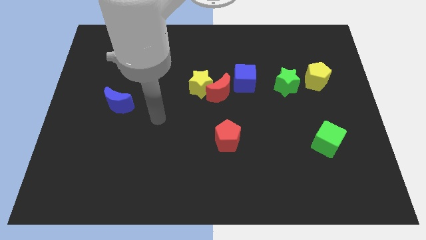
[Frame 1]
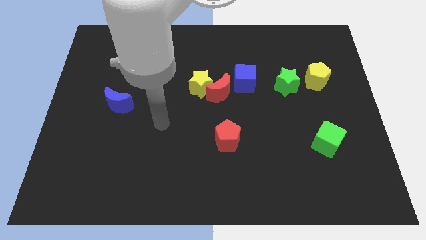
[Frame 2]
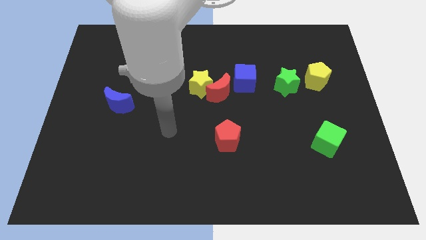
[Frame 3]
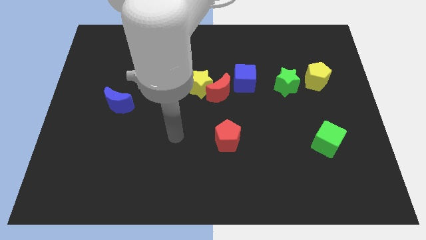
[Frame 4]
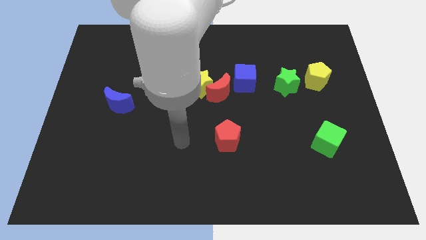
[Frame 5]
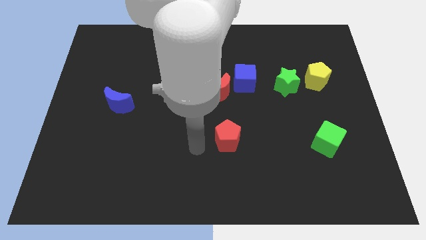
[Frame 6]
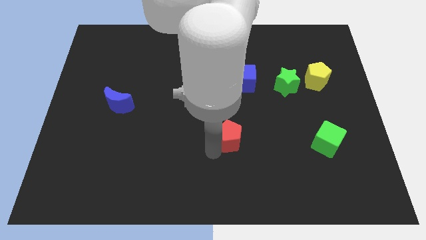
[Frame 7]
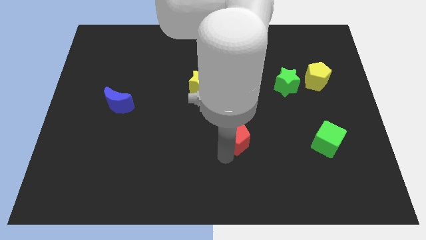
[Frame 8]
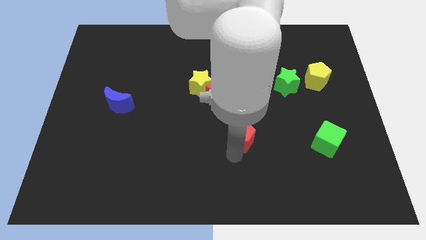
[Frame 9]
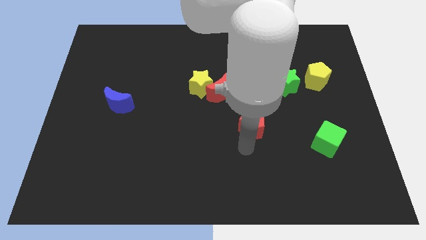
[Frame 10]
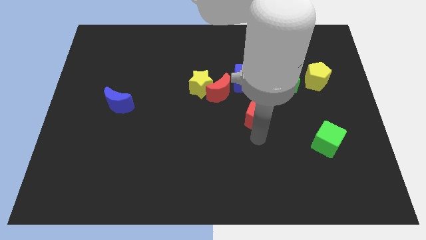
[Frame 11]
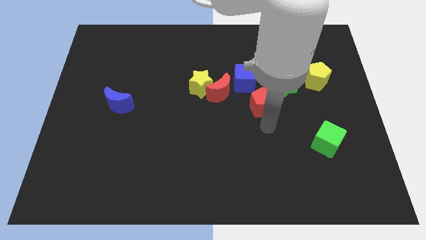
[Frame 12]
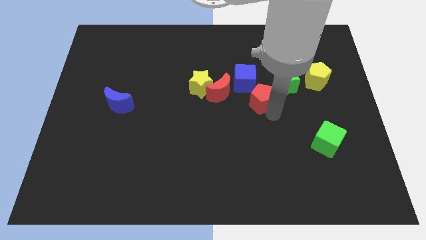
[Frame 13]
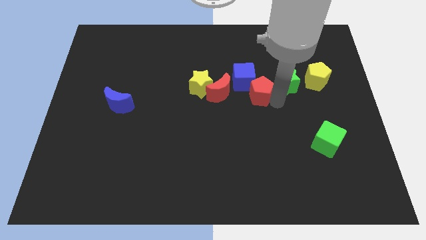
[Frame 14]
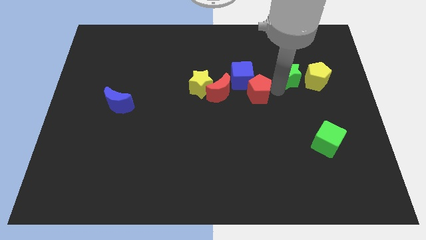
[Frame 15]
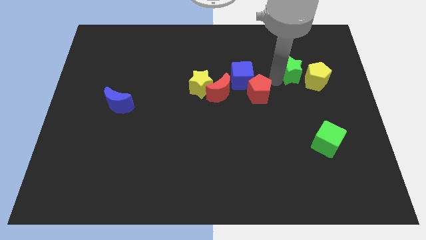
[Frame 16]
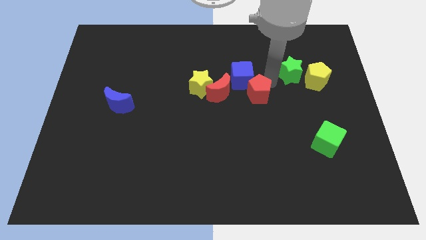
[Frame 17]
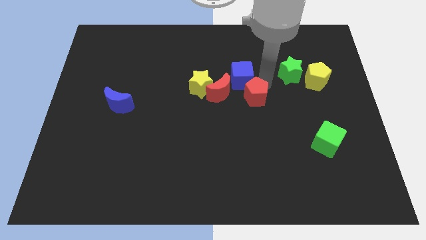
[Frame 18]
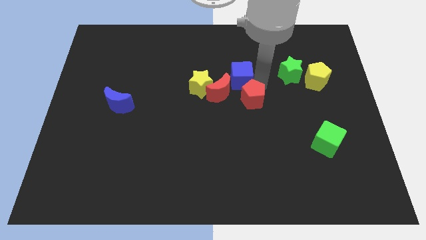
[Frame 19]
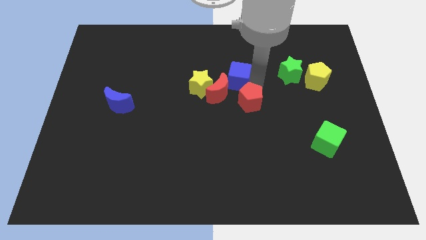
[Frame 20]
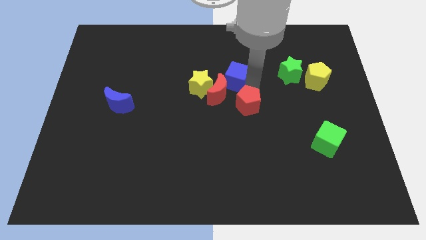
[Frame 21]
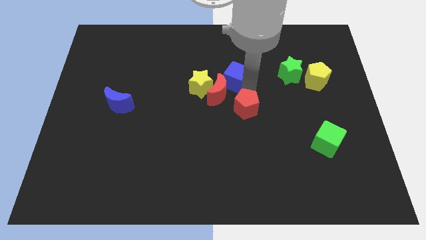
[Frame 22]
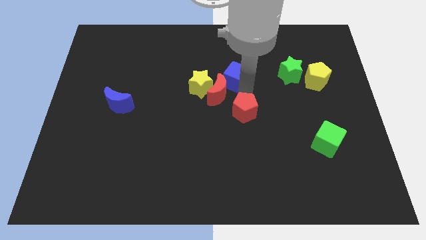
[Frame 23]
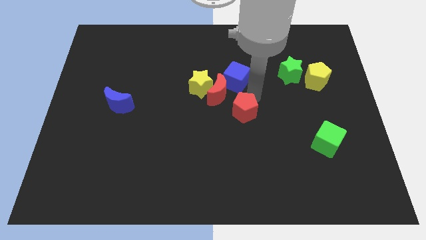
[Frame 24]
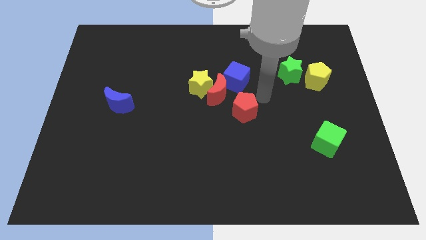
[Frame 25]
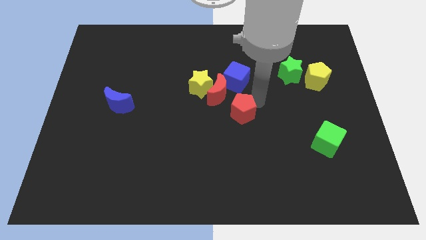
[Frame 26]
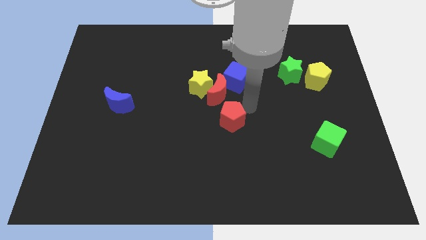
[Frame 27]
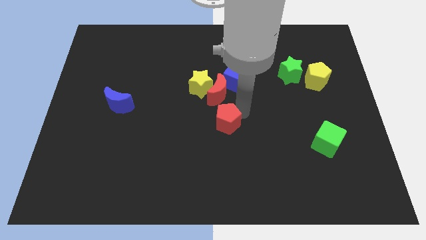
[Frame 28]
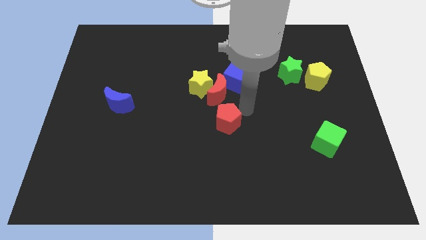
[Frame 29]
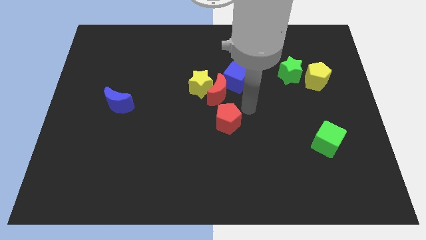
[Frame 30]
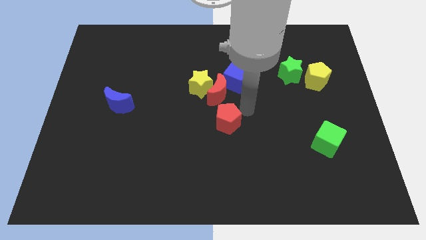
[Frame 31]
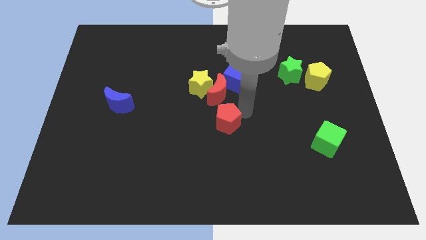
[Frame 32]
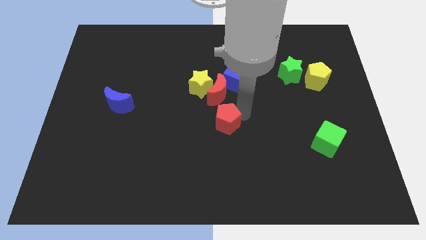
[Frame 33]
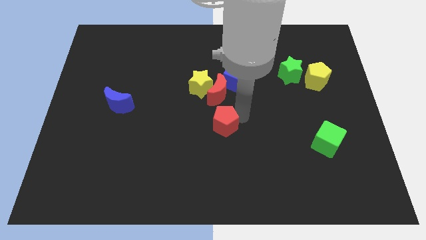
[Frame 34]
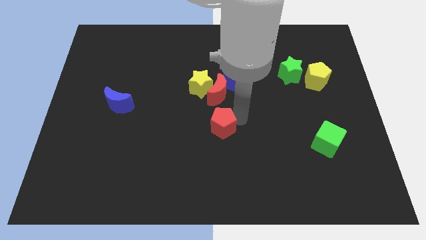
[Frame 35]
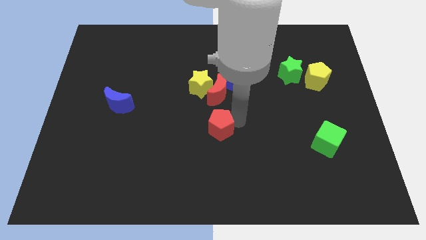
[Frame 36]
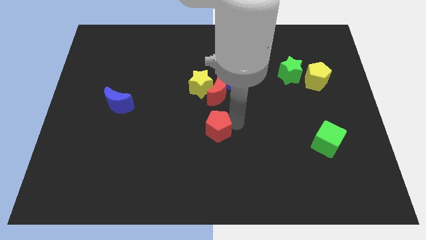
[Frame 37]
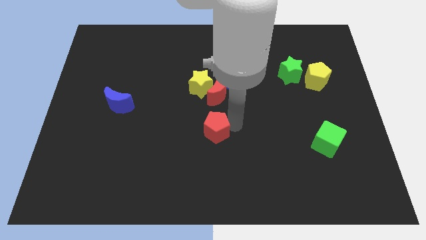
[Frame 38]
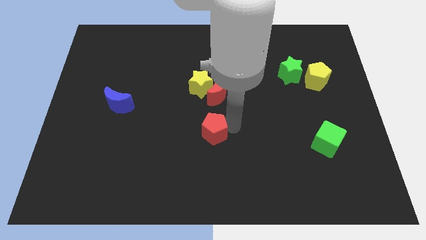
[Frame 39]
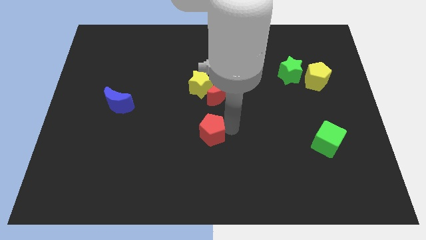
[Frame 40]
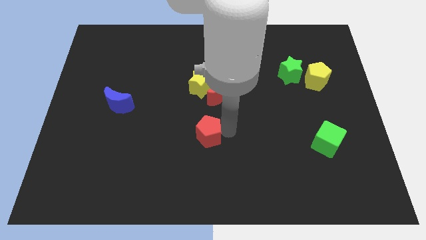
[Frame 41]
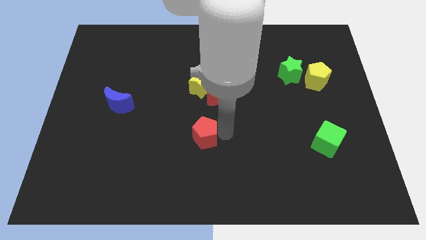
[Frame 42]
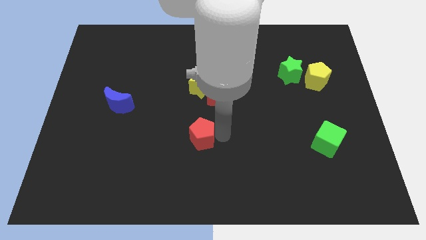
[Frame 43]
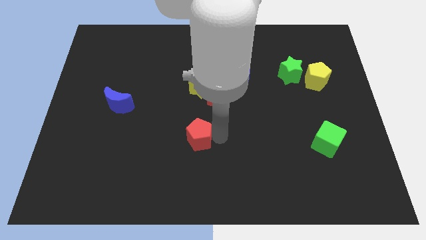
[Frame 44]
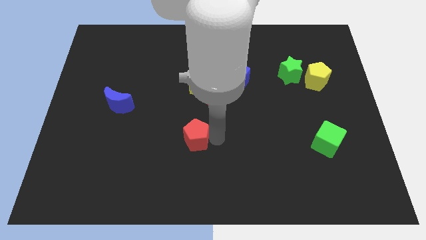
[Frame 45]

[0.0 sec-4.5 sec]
push the red pentagon a little left

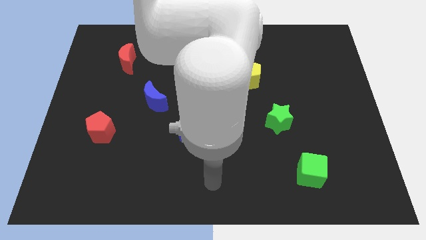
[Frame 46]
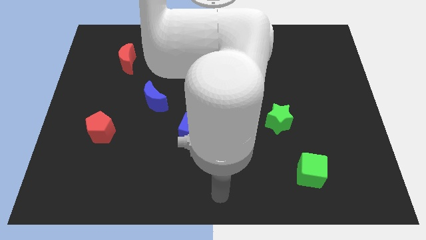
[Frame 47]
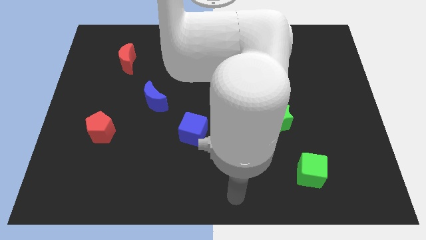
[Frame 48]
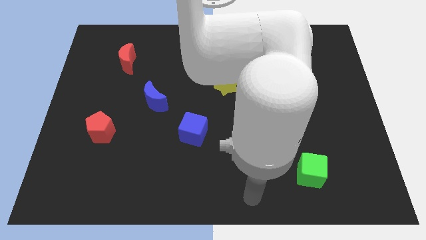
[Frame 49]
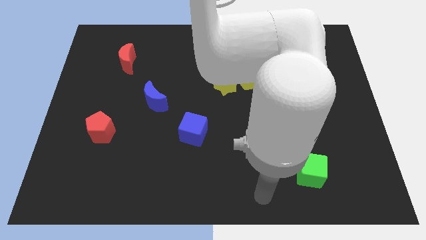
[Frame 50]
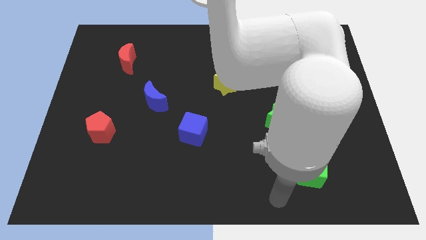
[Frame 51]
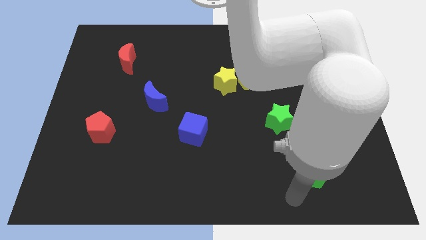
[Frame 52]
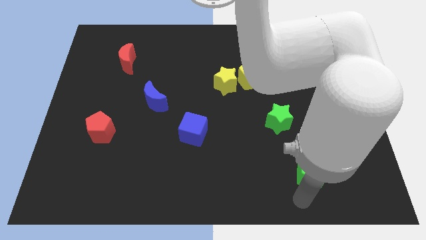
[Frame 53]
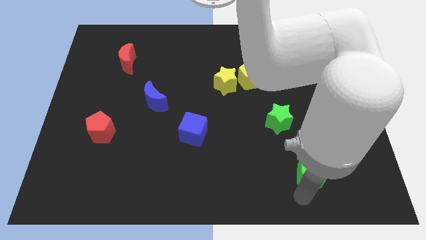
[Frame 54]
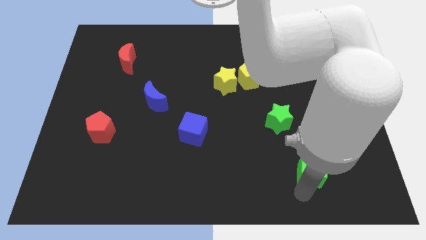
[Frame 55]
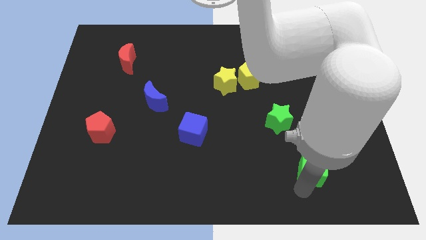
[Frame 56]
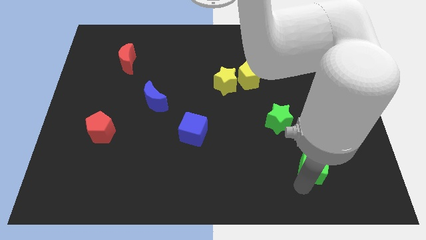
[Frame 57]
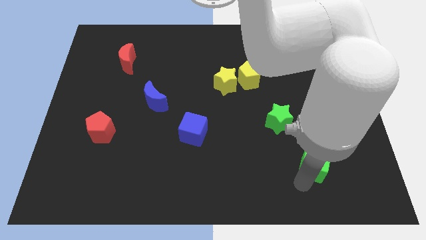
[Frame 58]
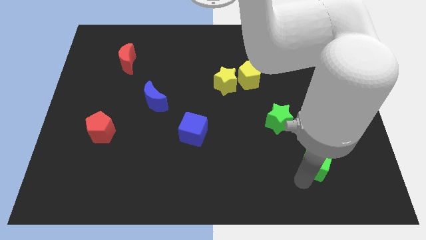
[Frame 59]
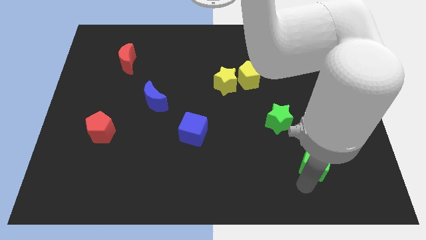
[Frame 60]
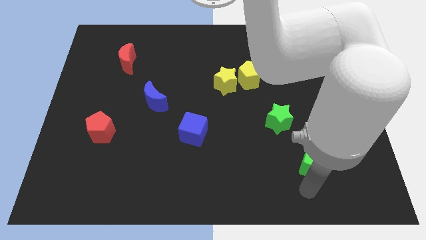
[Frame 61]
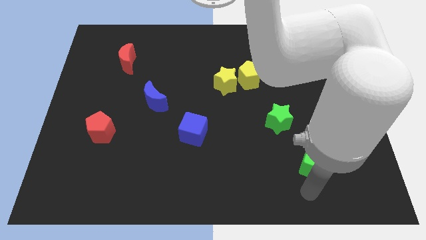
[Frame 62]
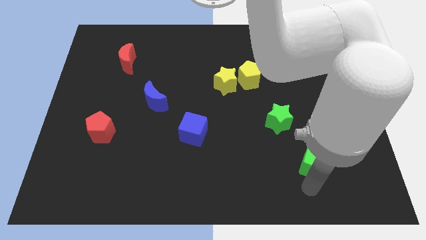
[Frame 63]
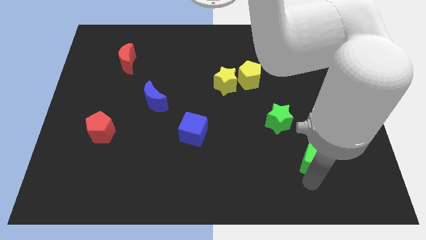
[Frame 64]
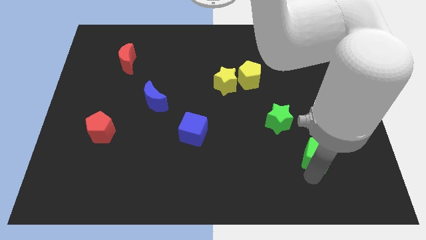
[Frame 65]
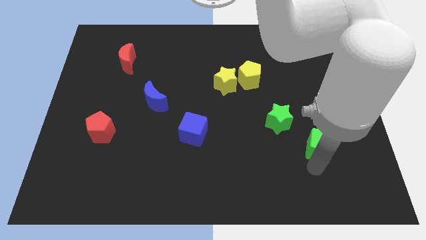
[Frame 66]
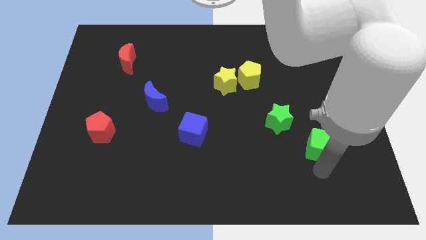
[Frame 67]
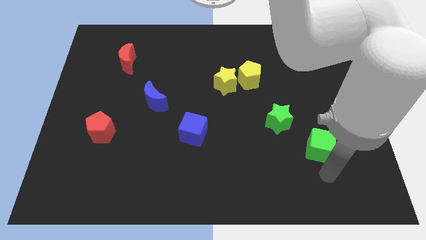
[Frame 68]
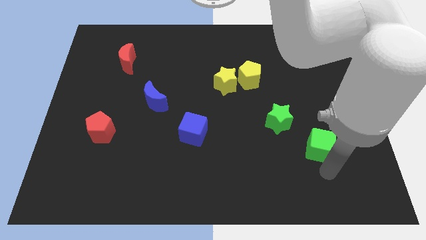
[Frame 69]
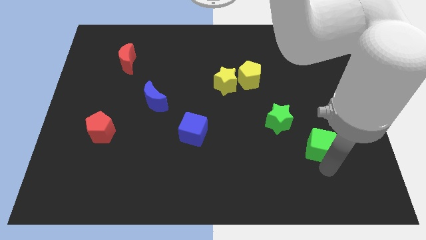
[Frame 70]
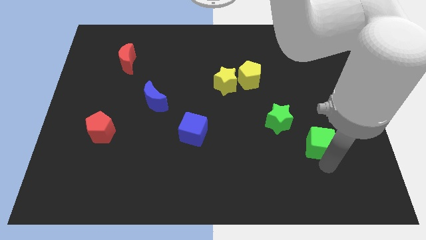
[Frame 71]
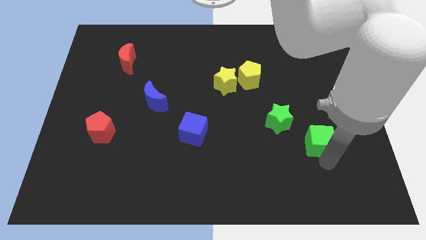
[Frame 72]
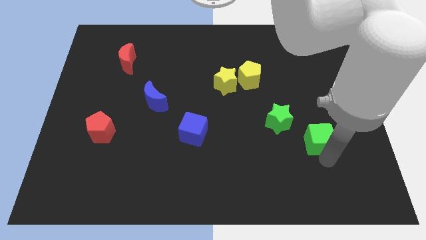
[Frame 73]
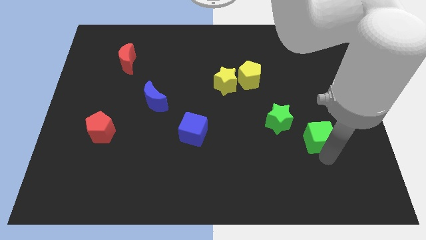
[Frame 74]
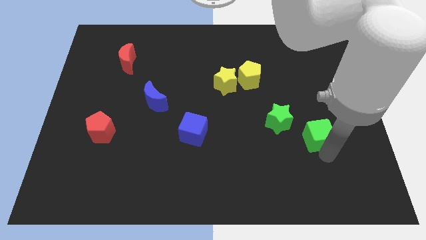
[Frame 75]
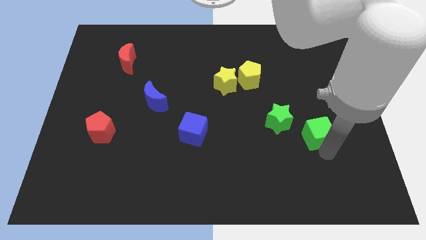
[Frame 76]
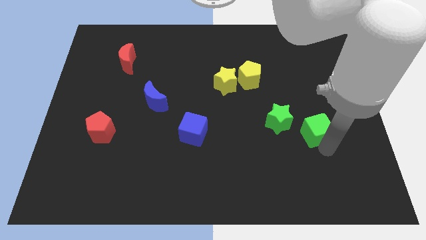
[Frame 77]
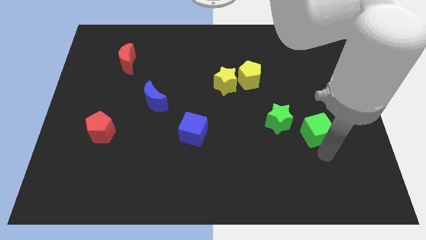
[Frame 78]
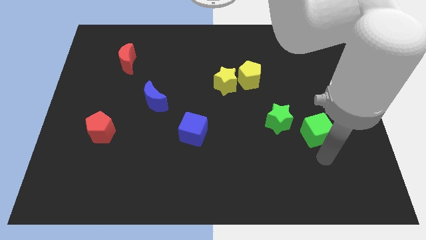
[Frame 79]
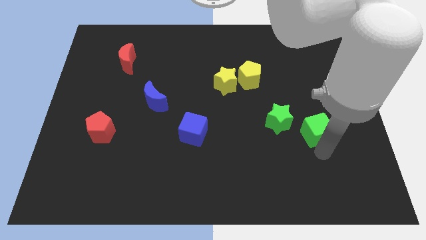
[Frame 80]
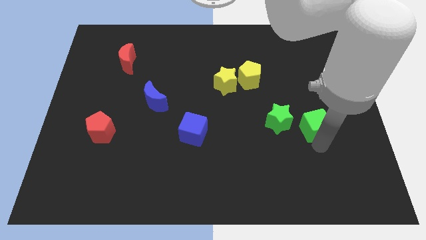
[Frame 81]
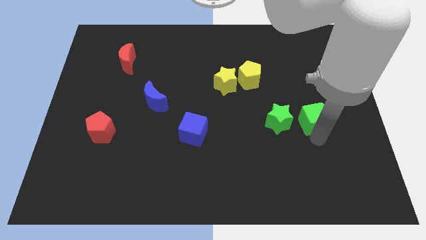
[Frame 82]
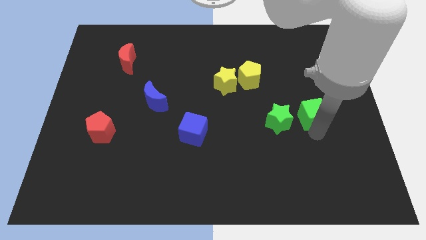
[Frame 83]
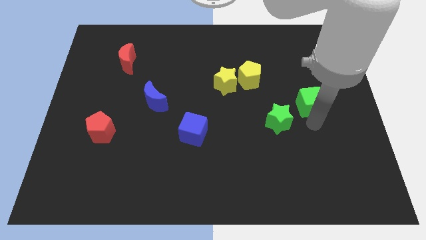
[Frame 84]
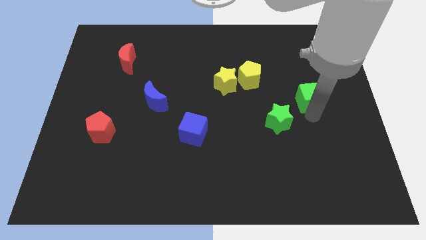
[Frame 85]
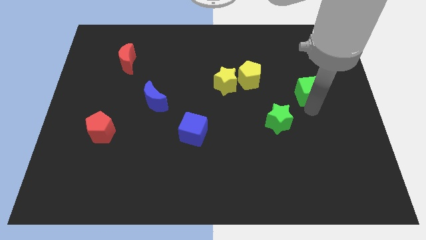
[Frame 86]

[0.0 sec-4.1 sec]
slide the green cube upwards
